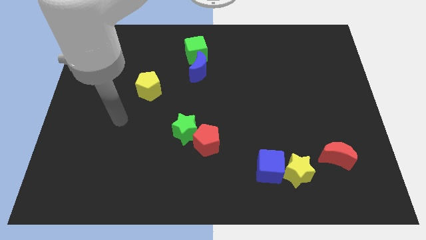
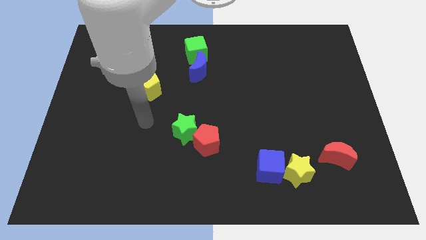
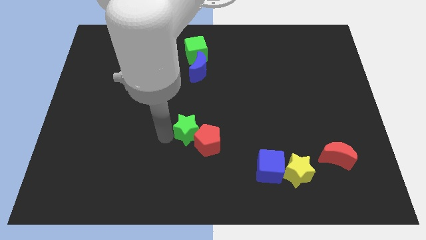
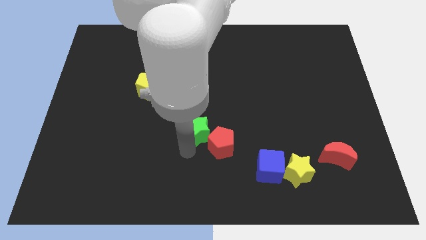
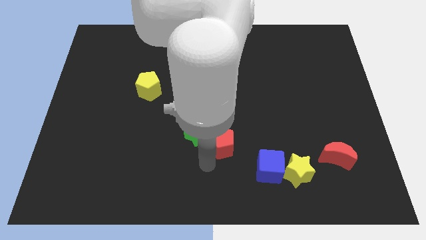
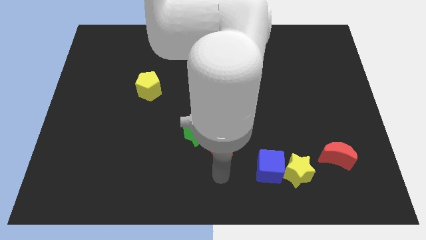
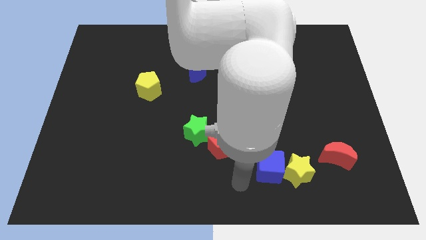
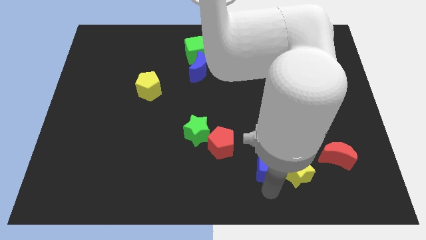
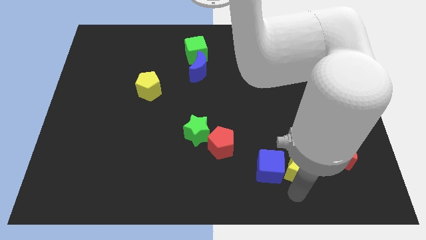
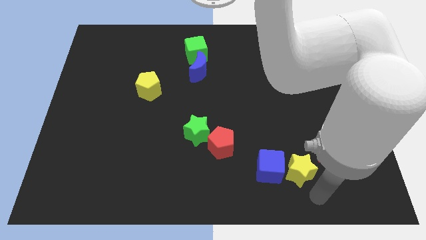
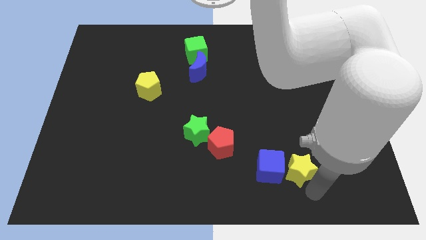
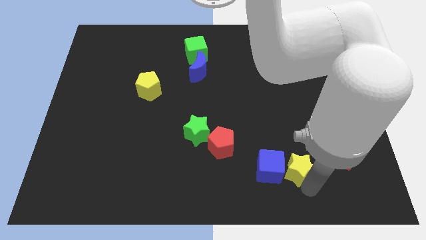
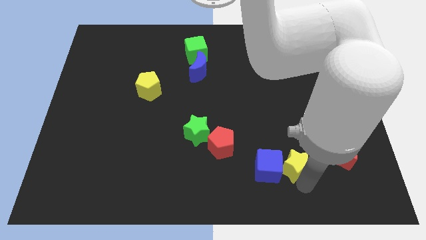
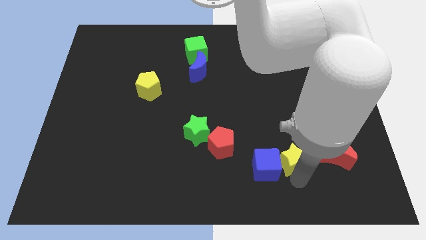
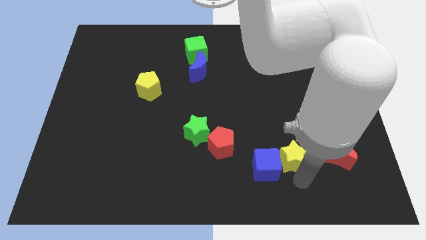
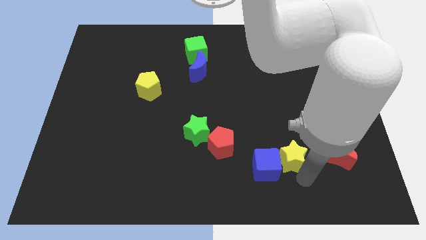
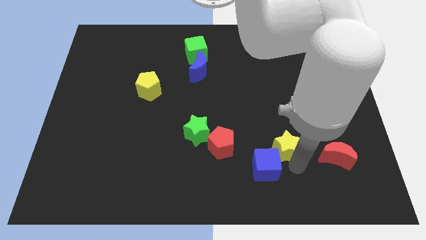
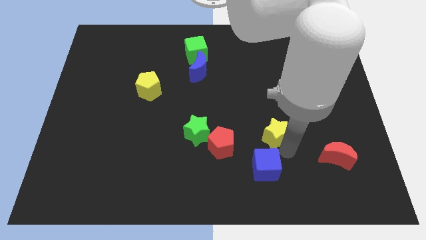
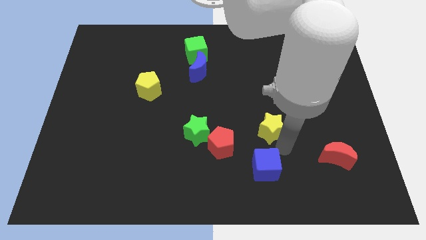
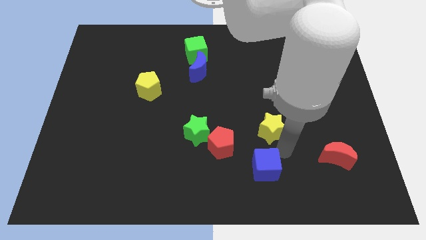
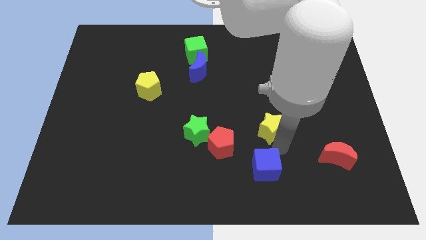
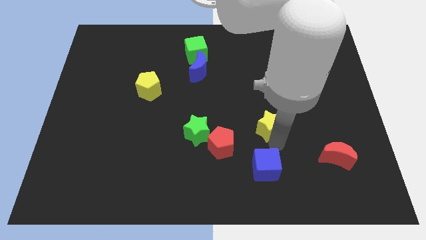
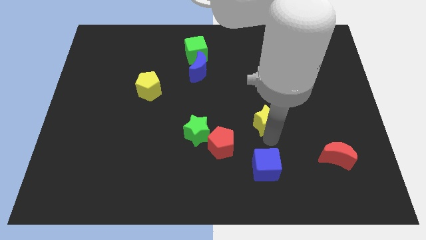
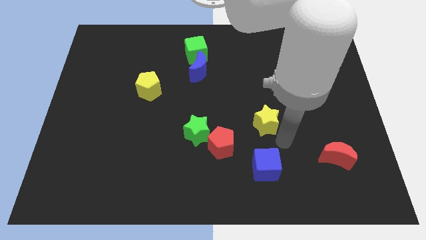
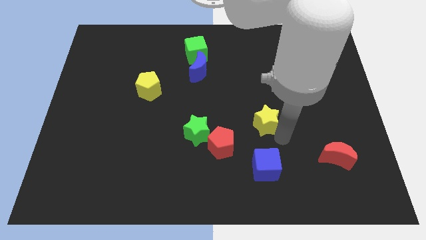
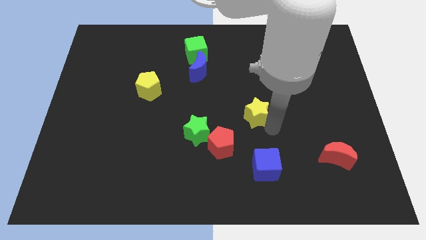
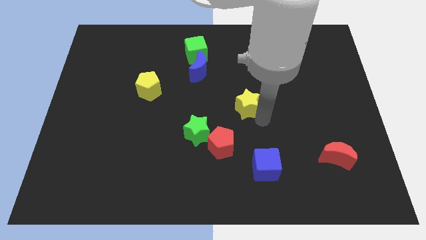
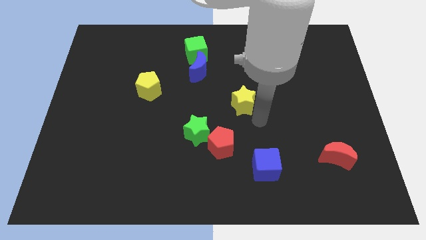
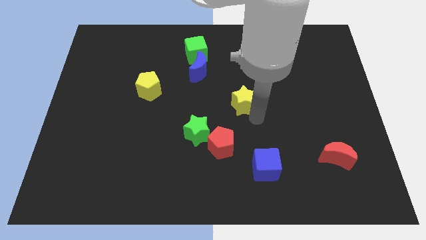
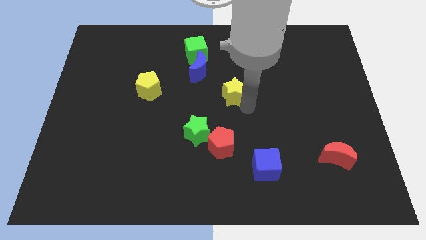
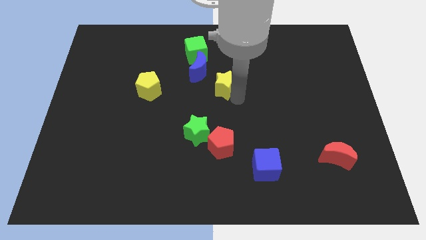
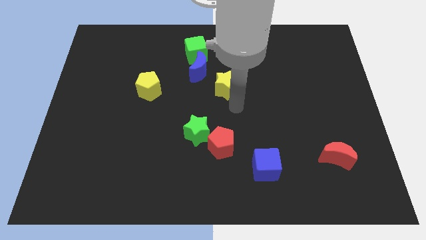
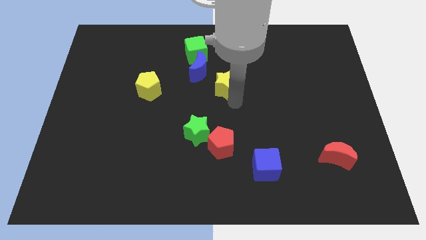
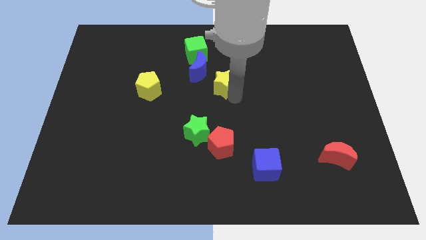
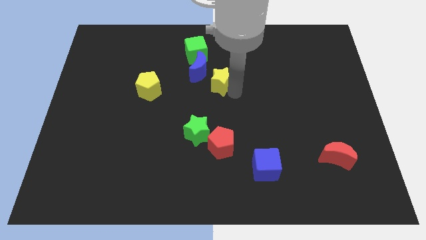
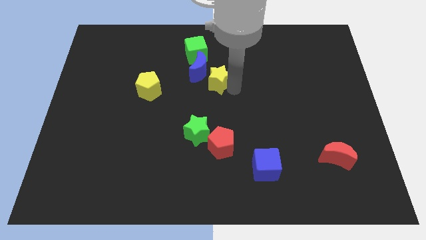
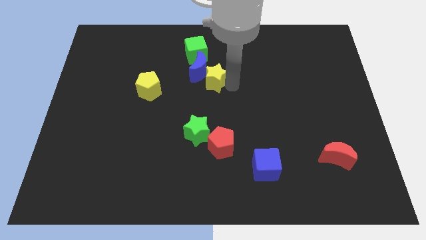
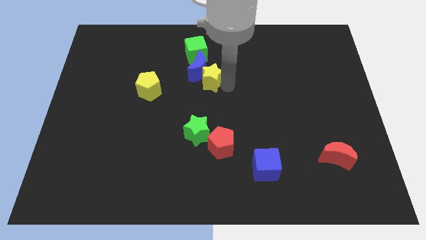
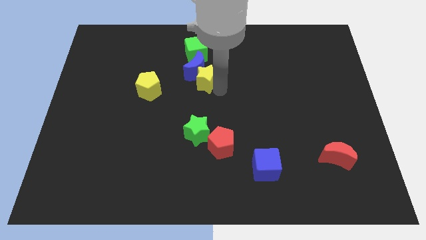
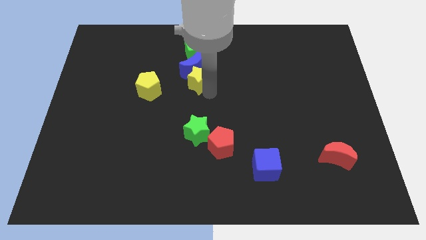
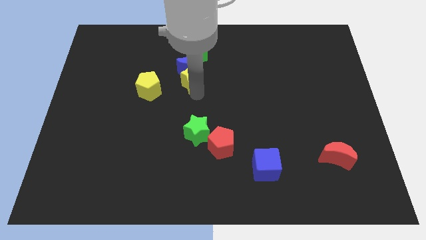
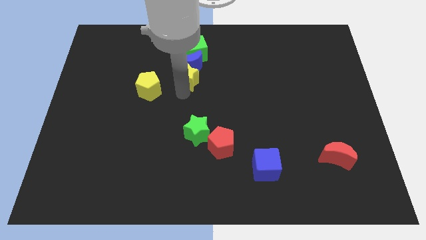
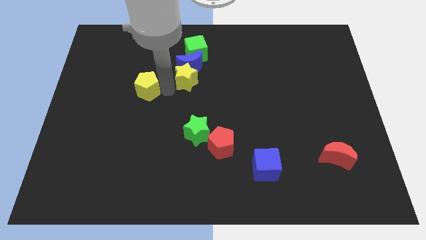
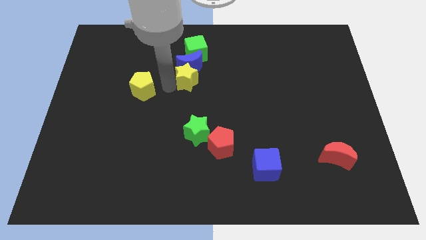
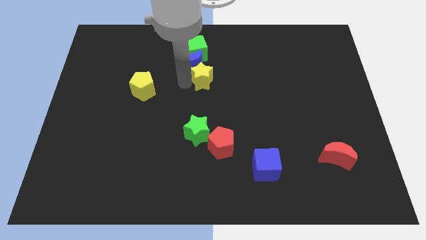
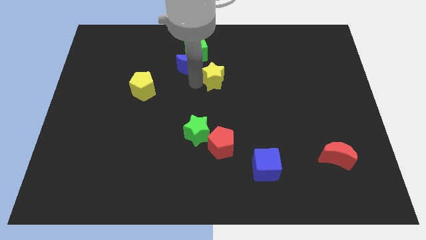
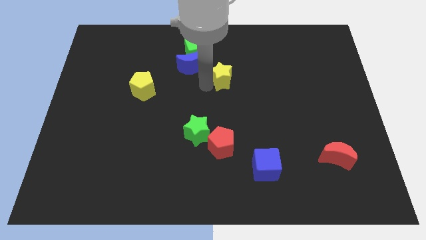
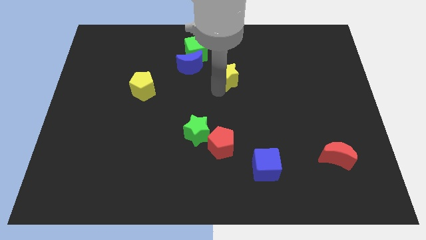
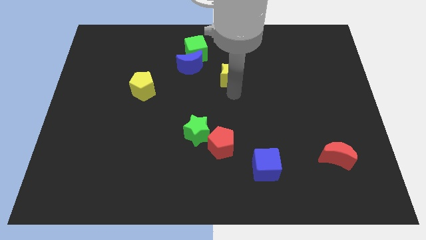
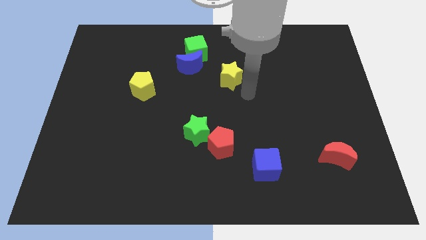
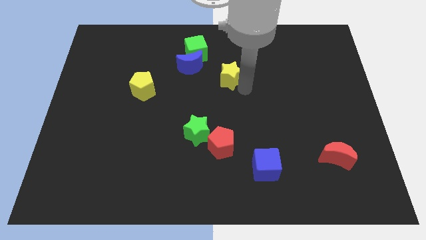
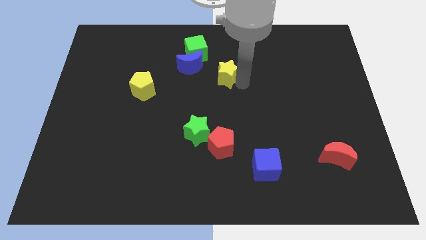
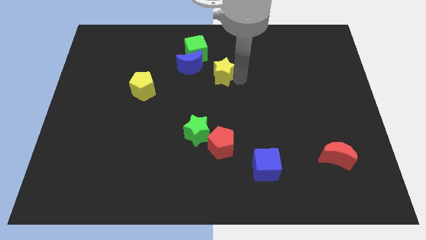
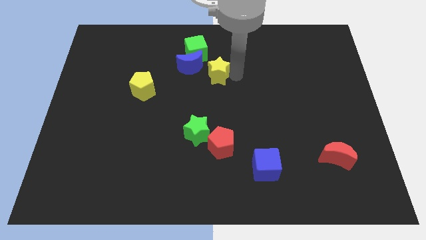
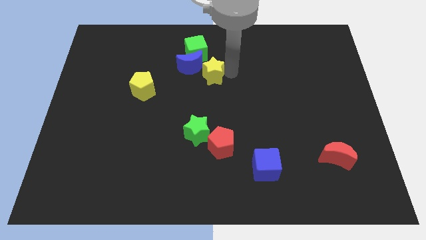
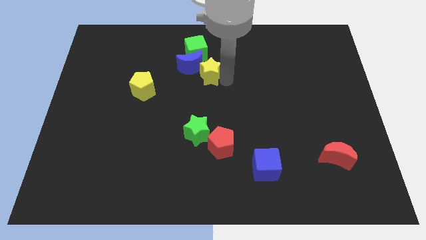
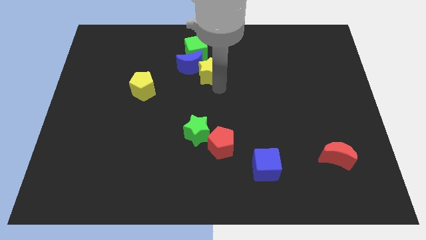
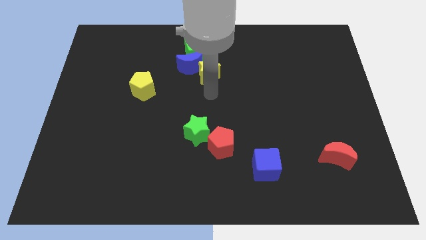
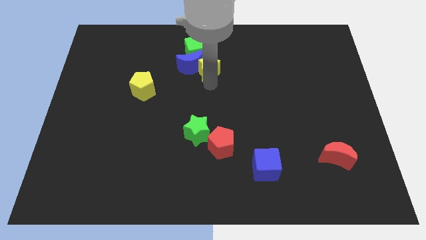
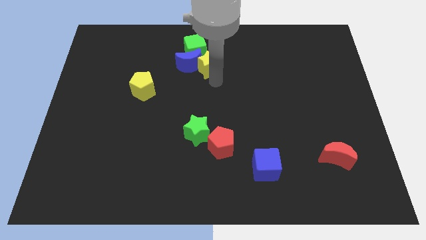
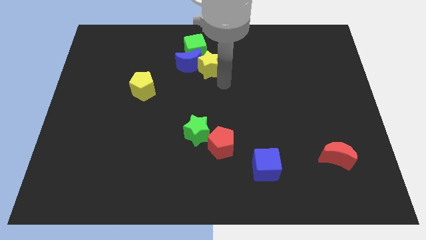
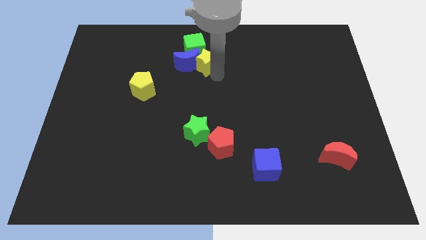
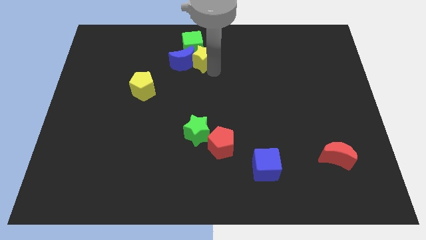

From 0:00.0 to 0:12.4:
put the yellow star close to the green cube
